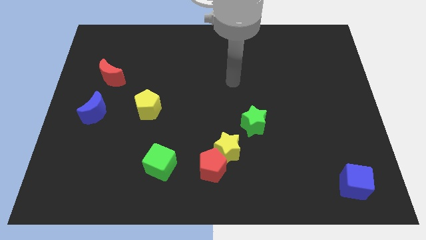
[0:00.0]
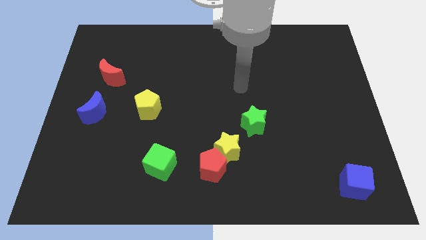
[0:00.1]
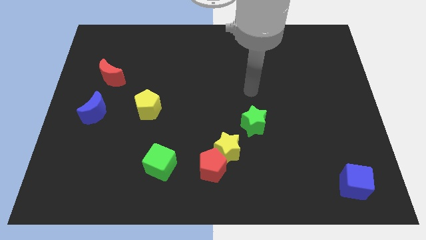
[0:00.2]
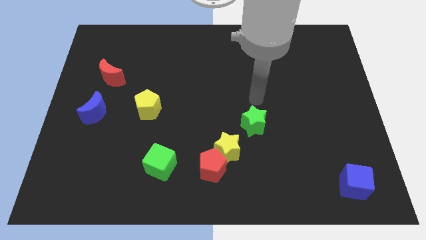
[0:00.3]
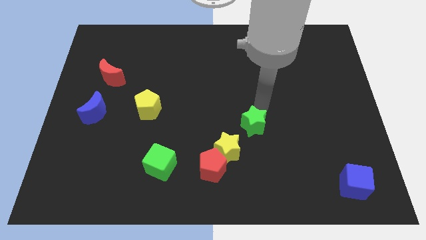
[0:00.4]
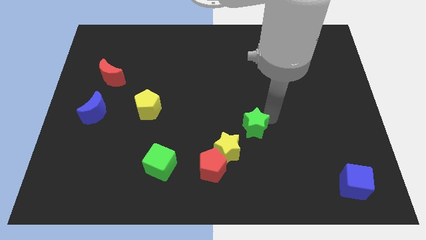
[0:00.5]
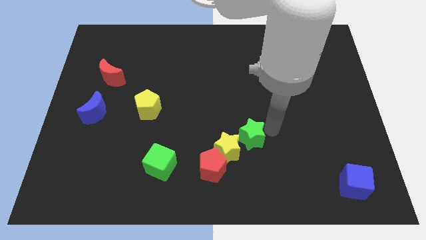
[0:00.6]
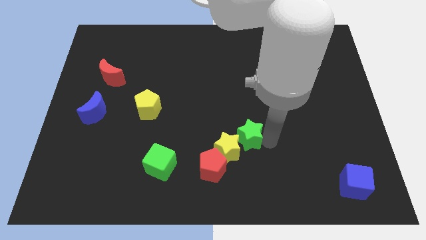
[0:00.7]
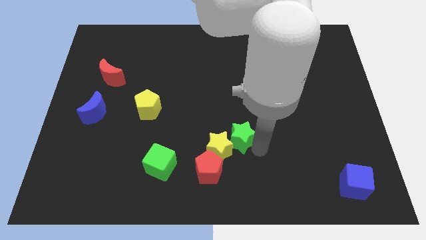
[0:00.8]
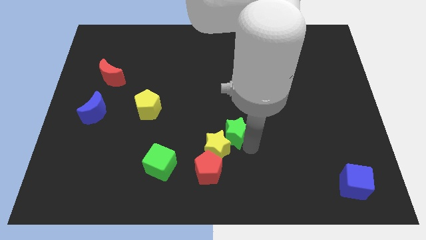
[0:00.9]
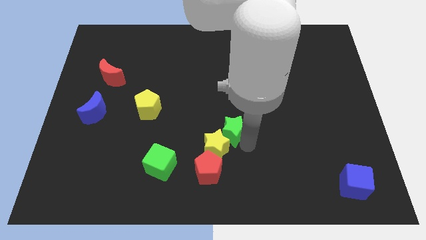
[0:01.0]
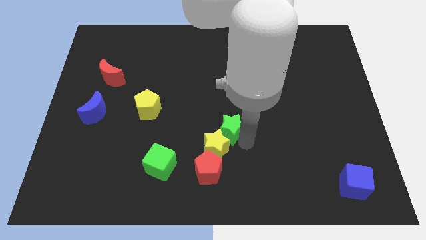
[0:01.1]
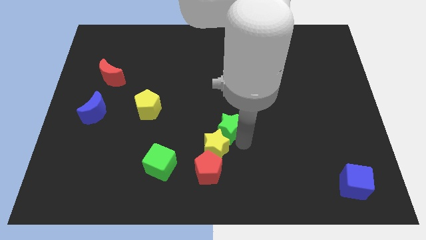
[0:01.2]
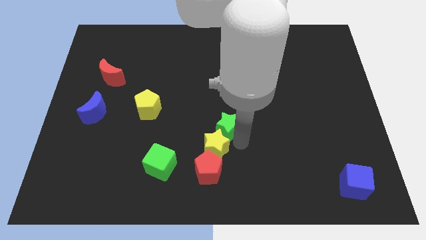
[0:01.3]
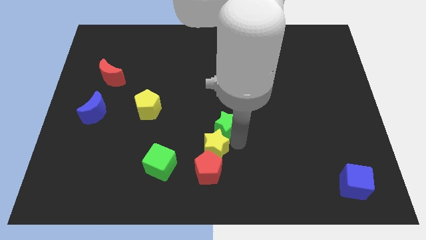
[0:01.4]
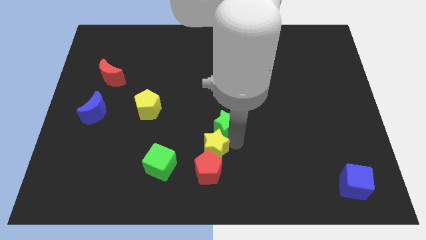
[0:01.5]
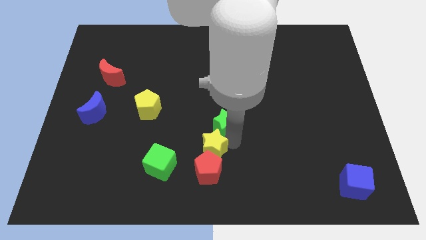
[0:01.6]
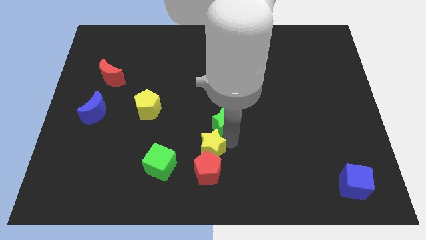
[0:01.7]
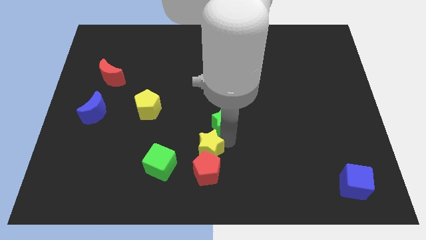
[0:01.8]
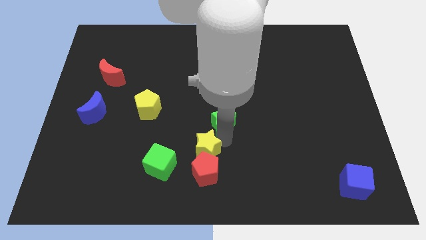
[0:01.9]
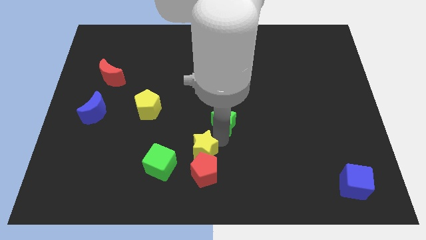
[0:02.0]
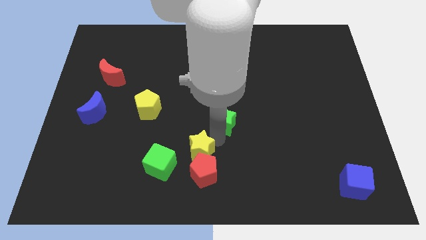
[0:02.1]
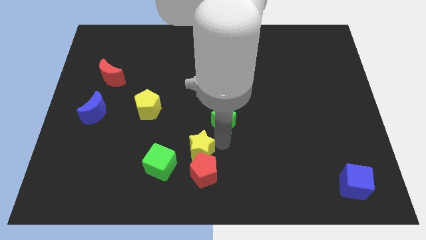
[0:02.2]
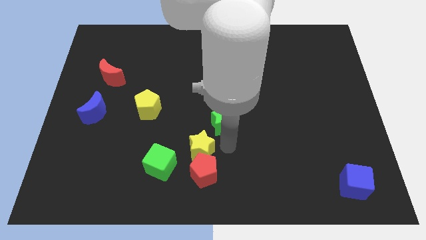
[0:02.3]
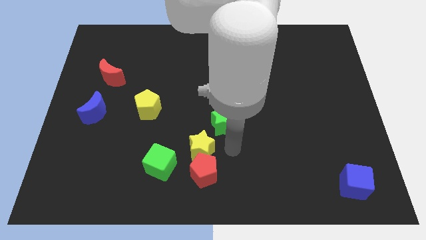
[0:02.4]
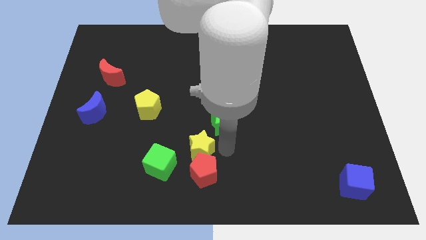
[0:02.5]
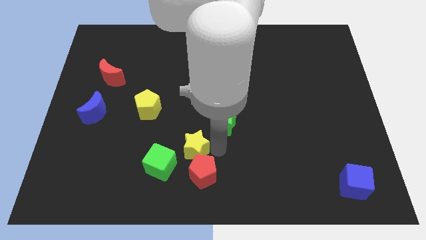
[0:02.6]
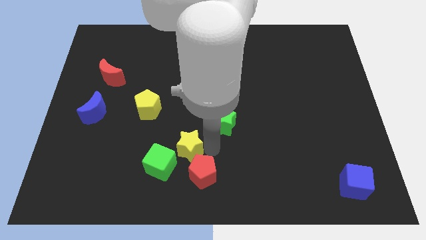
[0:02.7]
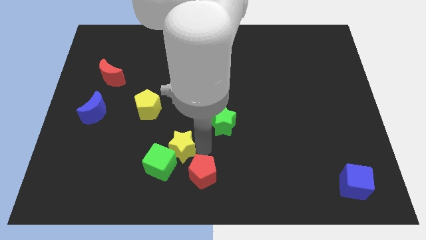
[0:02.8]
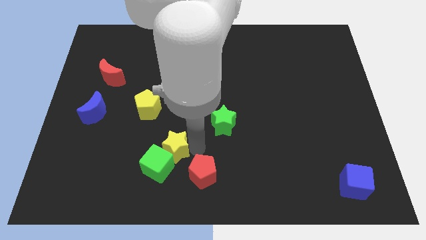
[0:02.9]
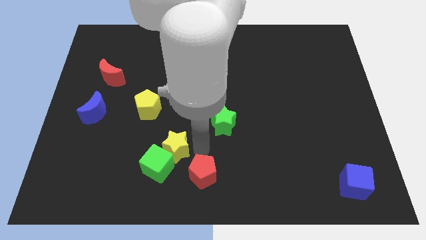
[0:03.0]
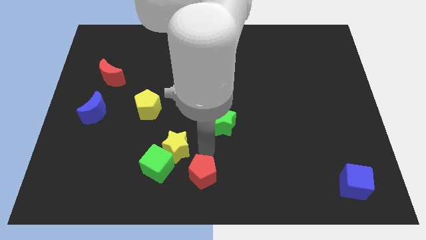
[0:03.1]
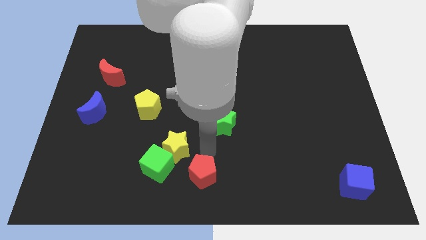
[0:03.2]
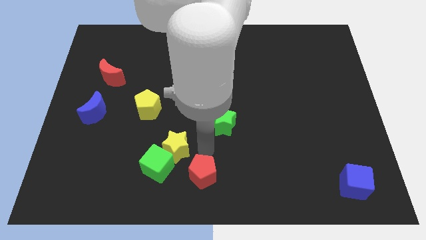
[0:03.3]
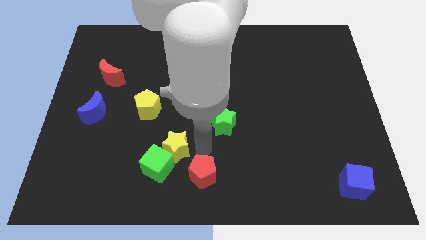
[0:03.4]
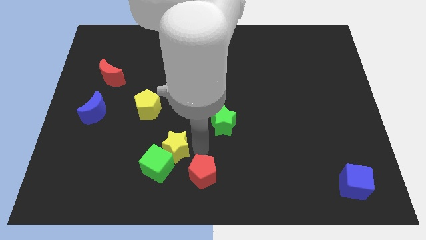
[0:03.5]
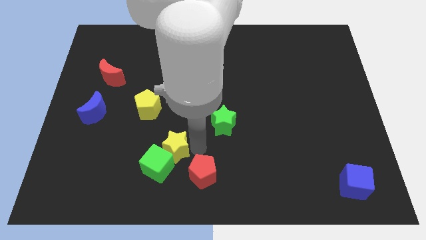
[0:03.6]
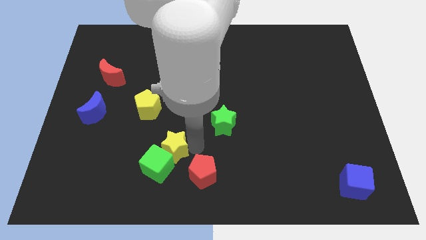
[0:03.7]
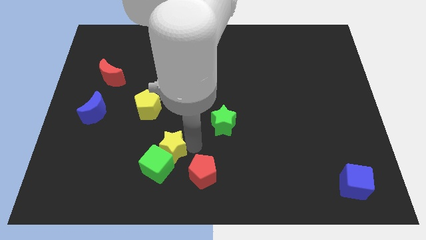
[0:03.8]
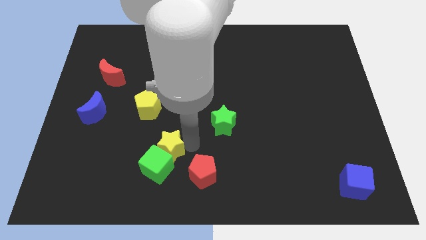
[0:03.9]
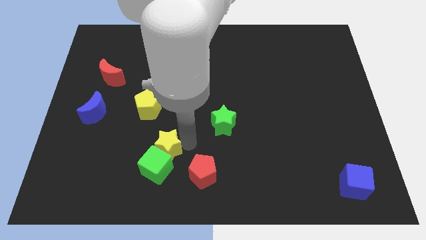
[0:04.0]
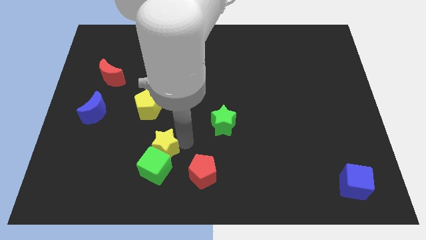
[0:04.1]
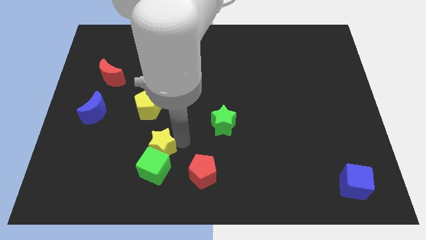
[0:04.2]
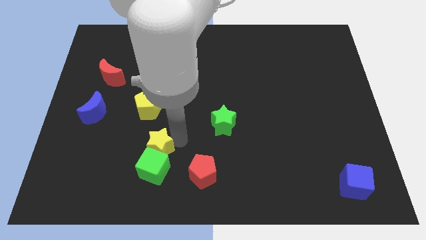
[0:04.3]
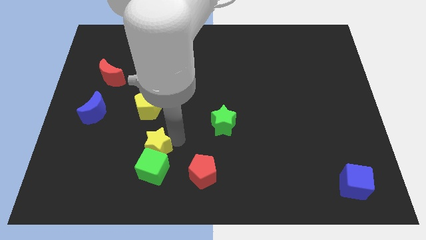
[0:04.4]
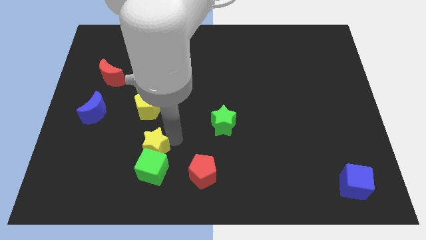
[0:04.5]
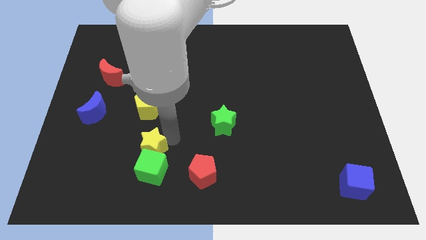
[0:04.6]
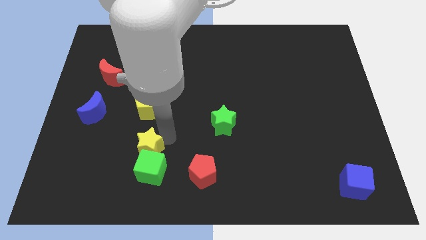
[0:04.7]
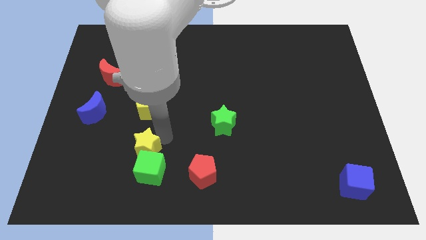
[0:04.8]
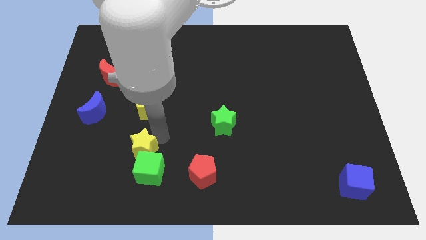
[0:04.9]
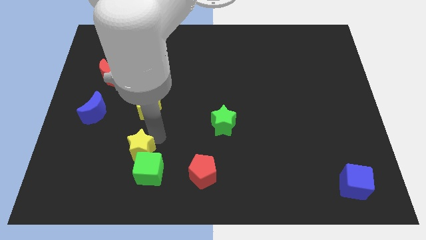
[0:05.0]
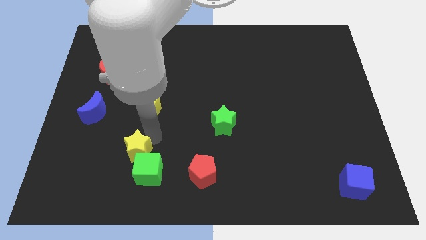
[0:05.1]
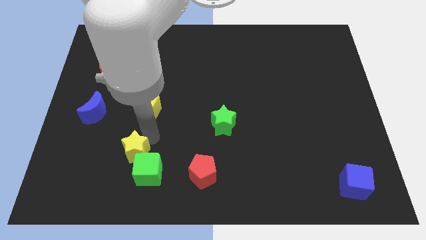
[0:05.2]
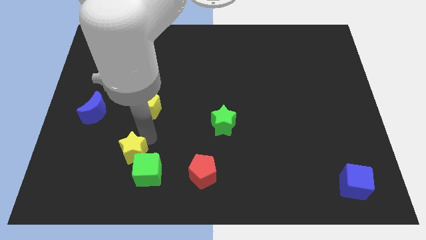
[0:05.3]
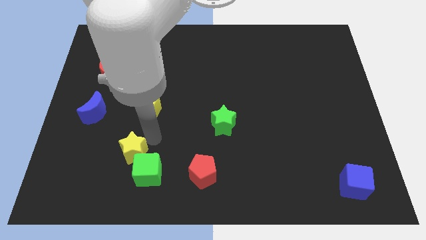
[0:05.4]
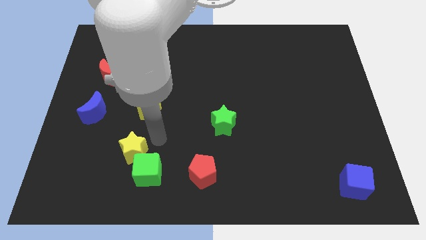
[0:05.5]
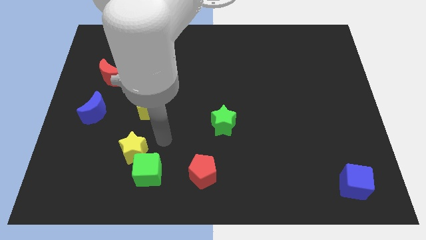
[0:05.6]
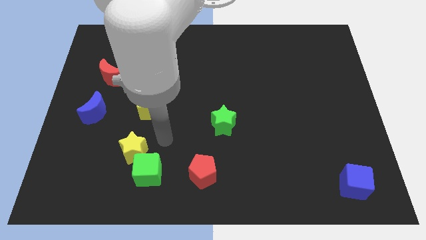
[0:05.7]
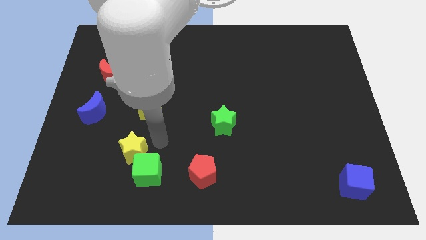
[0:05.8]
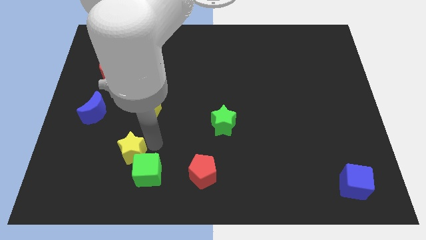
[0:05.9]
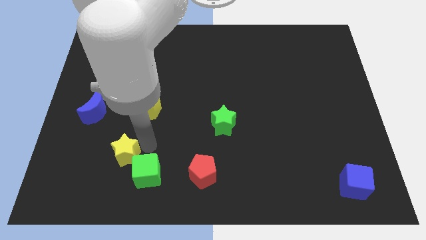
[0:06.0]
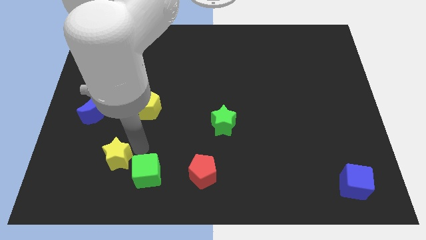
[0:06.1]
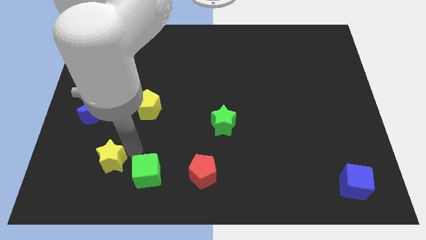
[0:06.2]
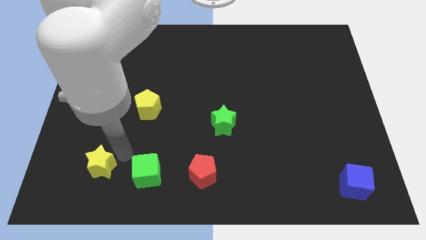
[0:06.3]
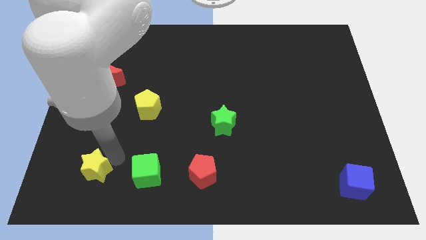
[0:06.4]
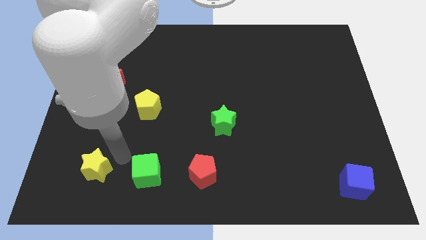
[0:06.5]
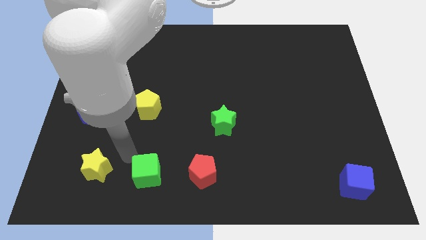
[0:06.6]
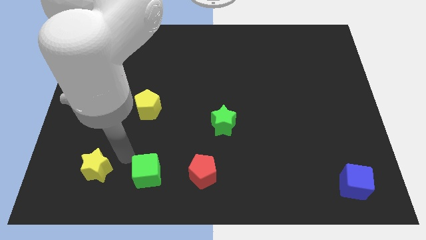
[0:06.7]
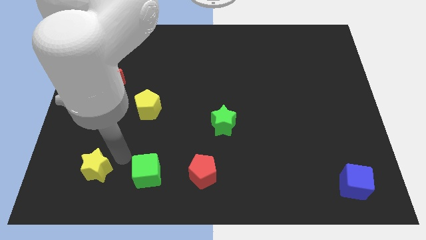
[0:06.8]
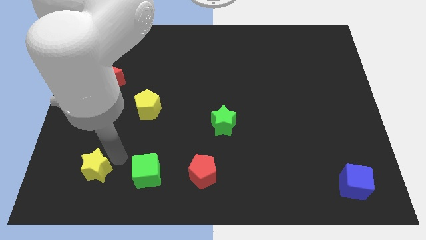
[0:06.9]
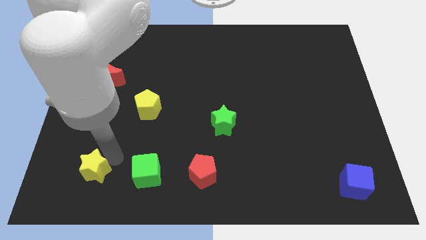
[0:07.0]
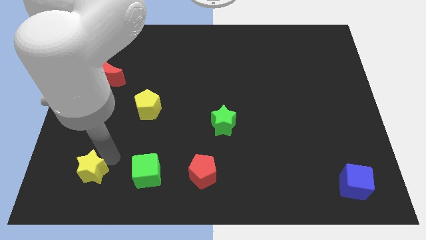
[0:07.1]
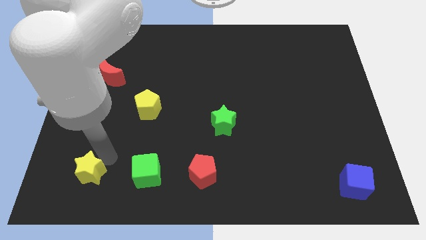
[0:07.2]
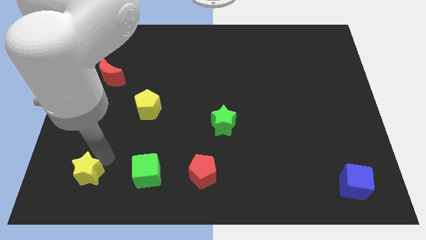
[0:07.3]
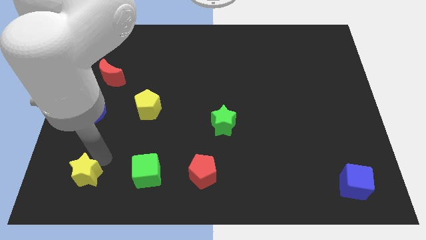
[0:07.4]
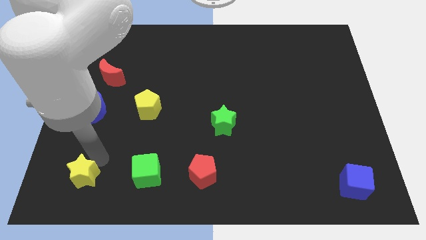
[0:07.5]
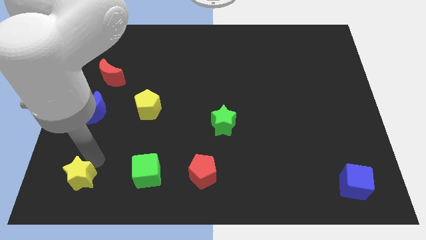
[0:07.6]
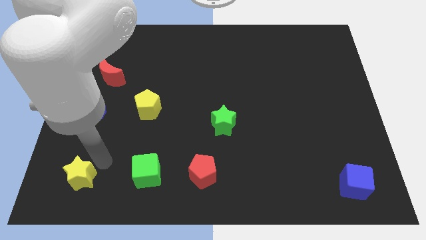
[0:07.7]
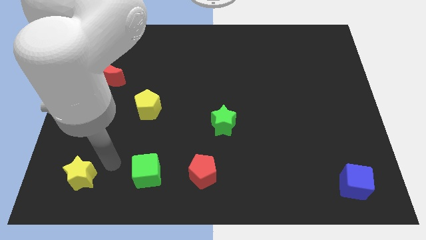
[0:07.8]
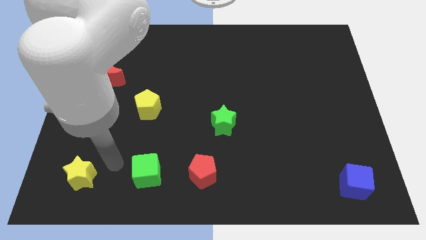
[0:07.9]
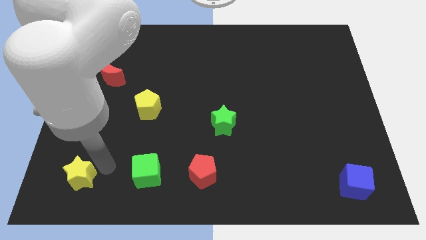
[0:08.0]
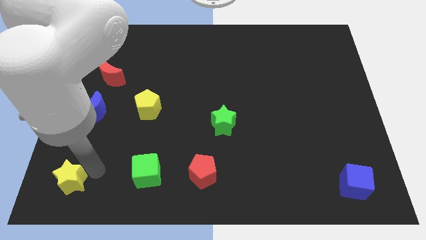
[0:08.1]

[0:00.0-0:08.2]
push the yellow star to the lower left corner
